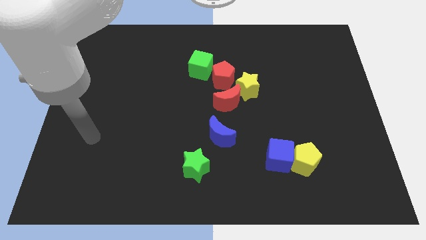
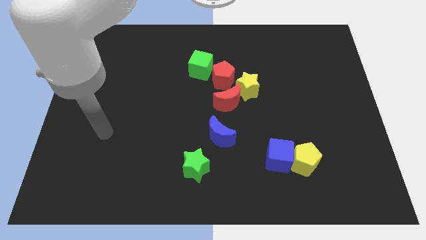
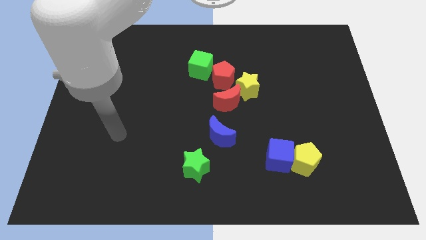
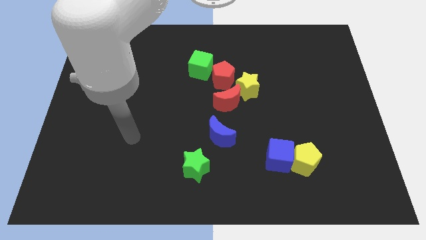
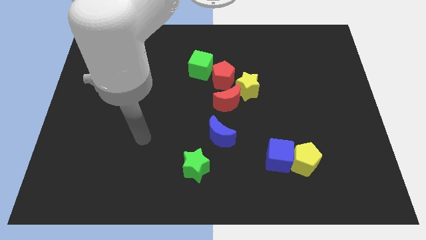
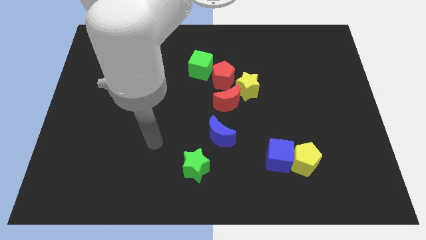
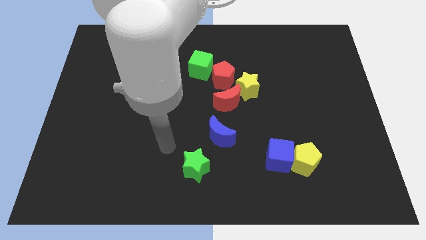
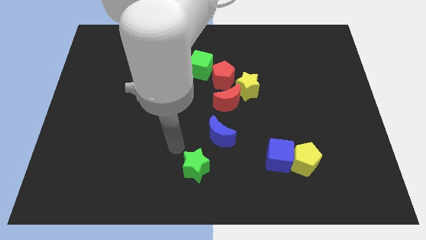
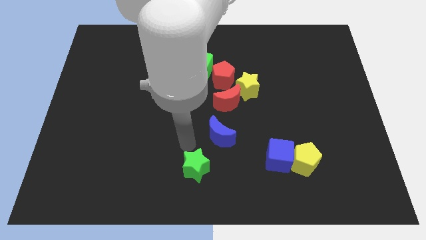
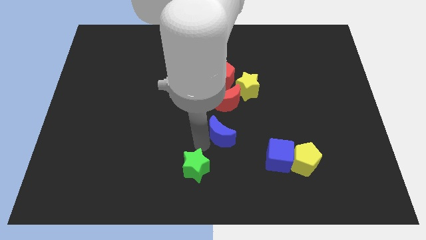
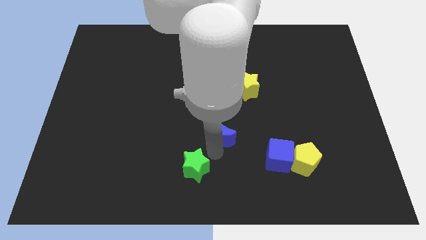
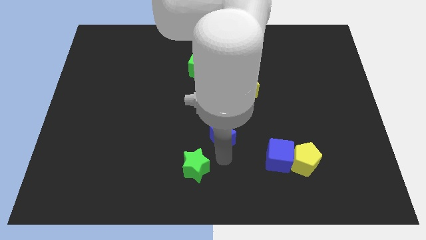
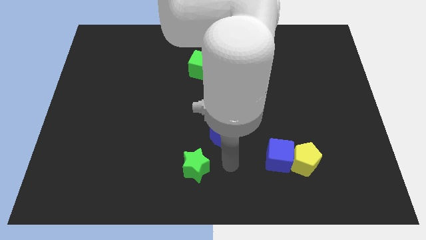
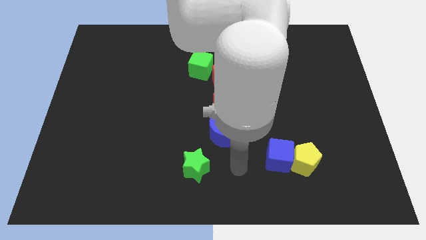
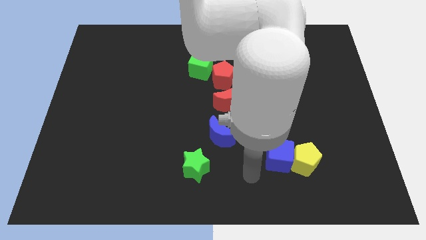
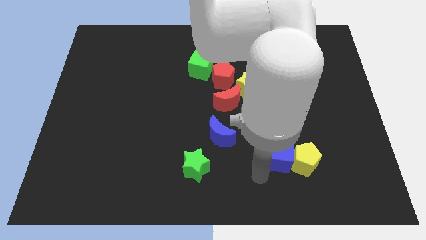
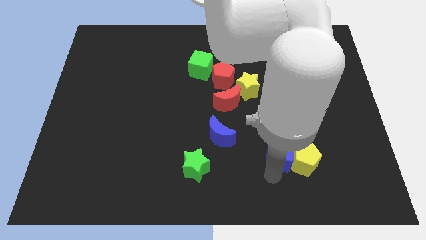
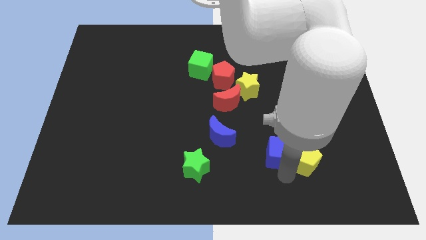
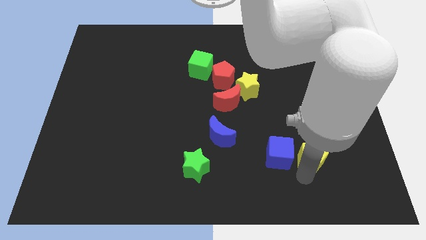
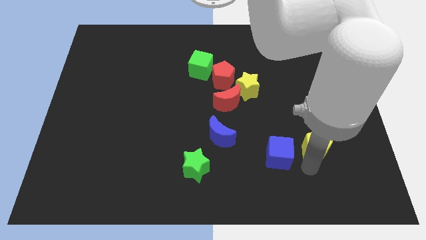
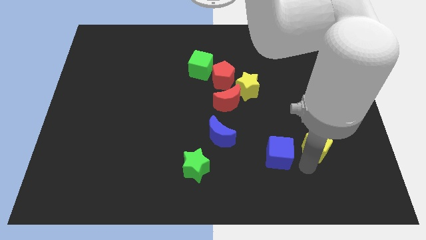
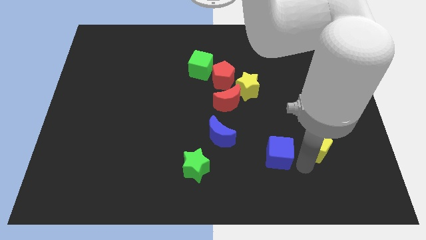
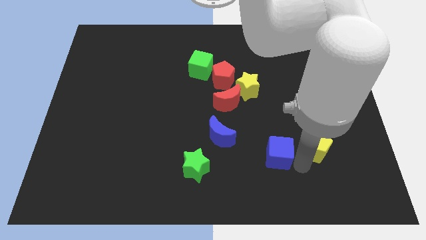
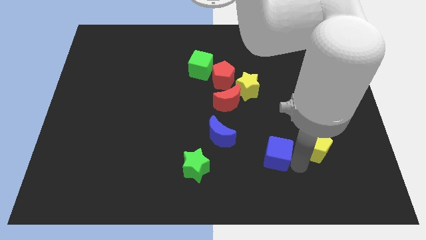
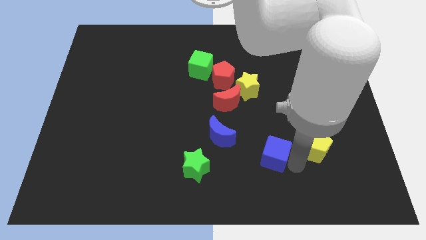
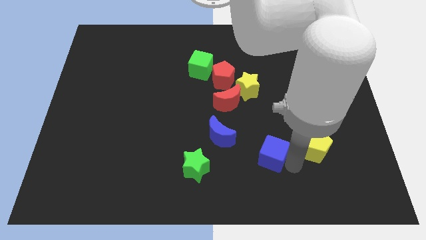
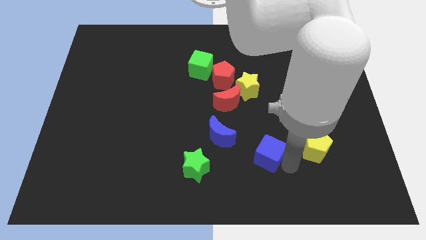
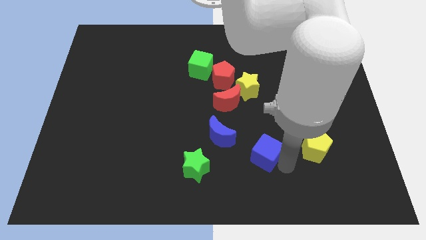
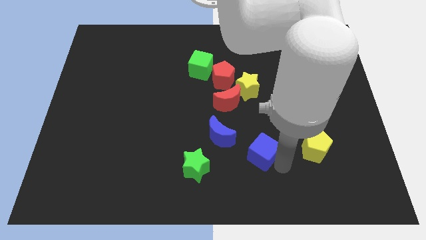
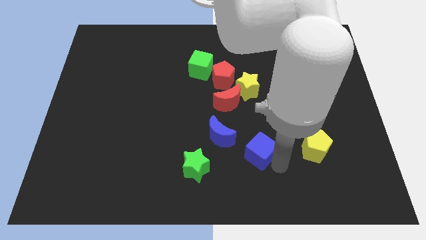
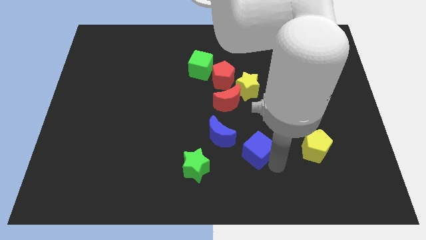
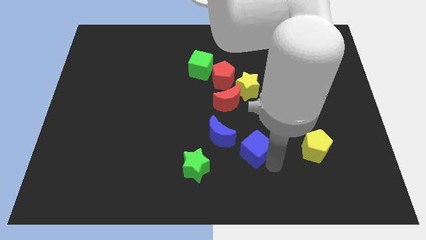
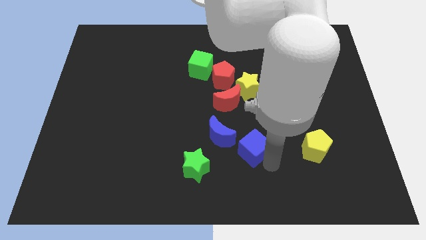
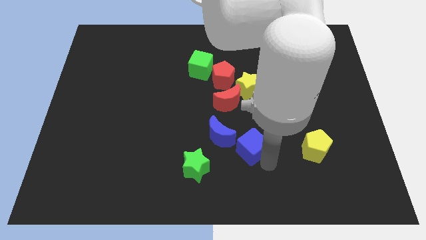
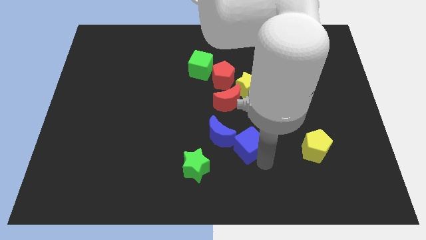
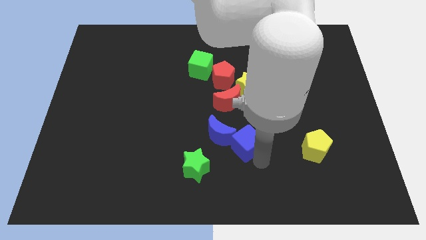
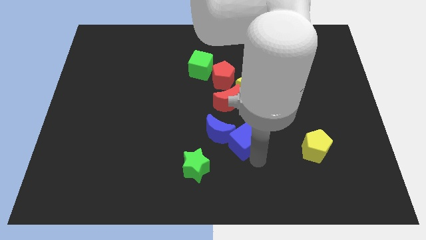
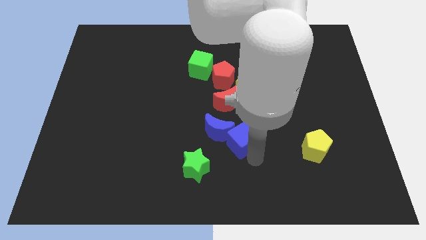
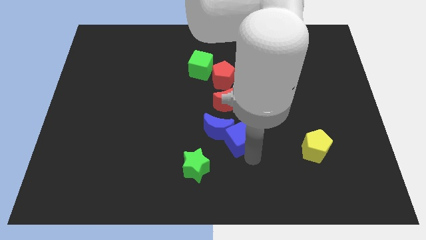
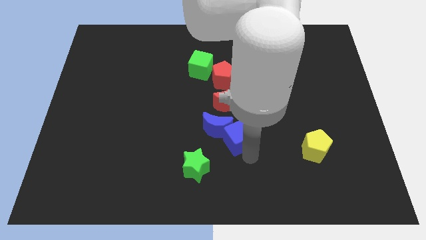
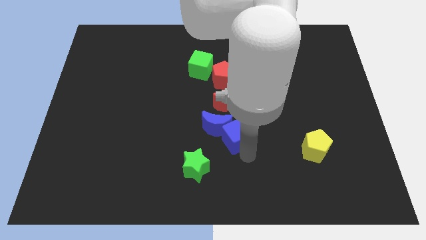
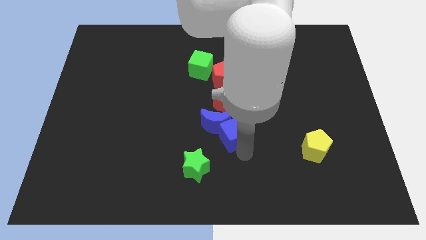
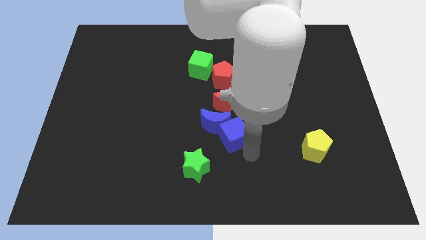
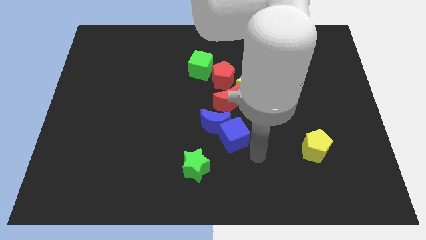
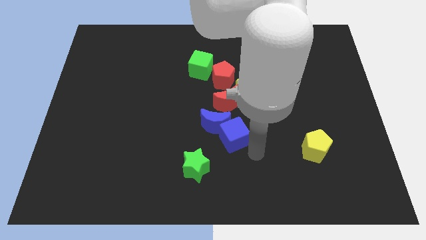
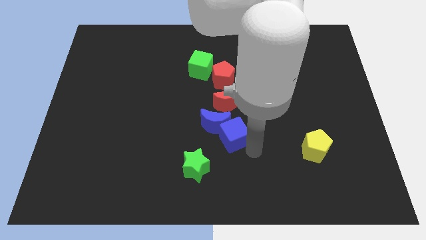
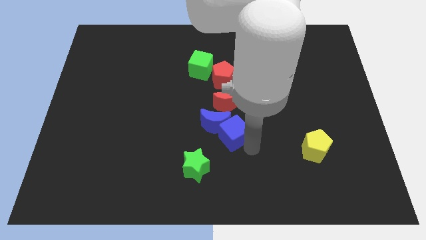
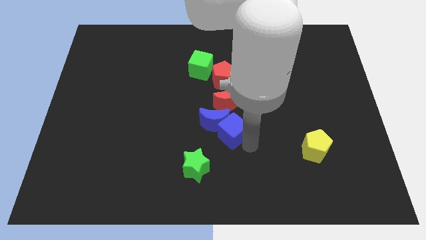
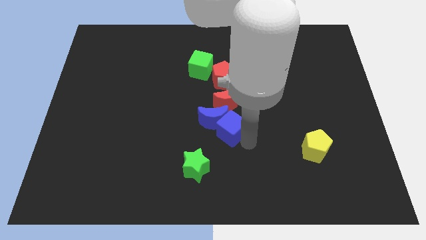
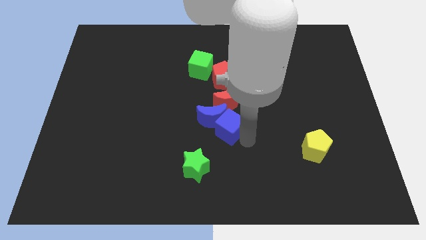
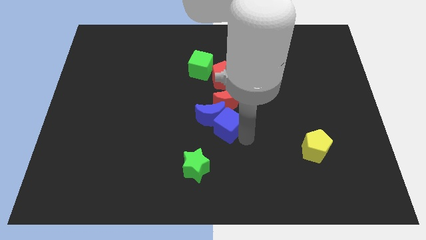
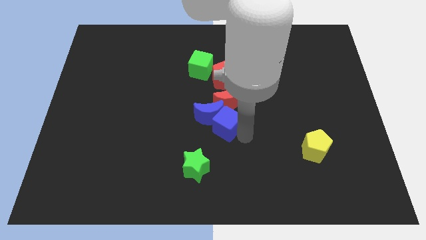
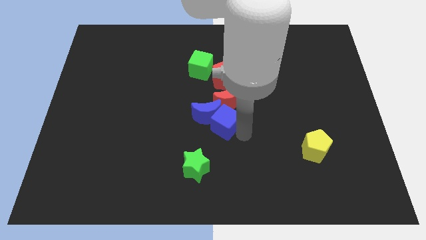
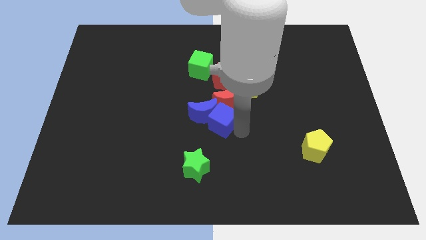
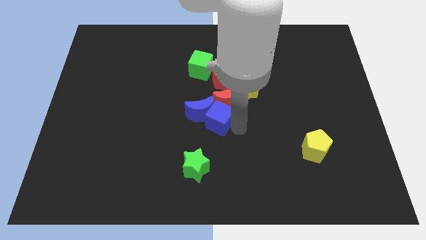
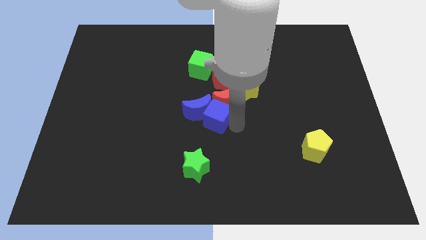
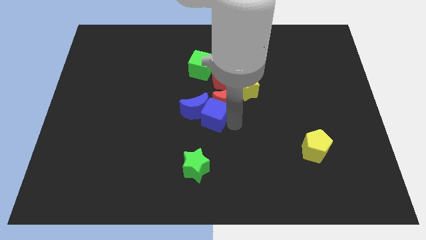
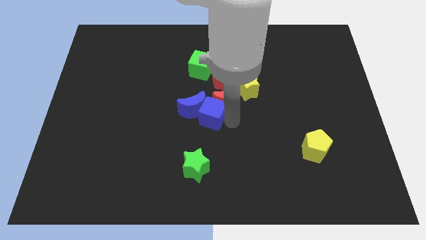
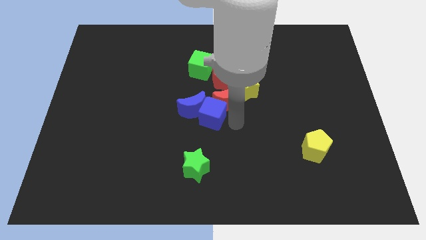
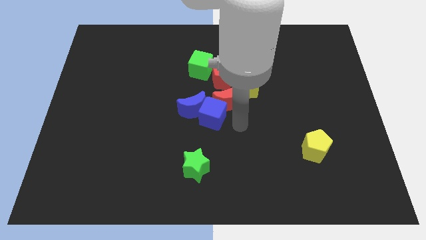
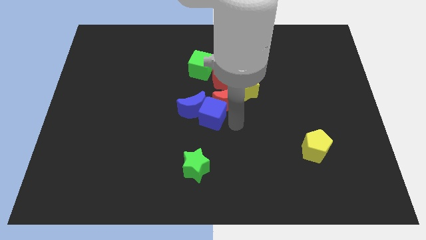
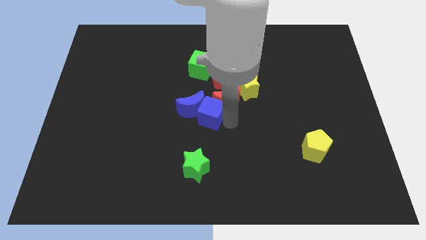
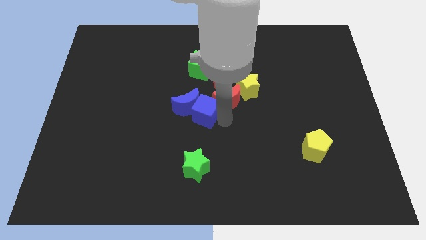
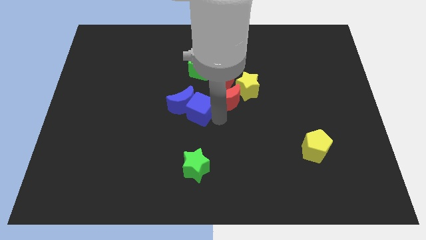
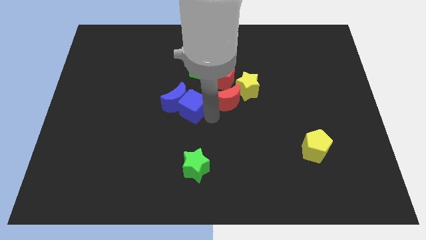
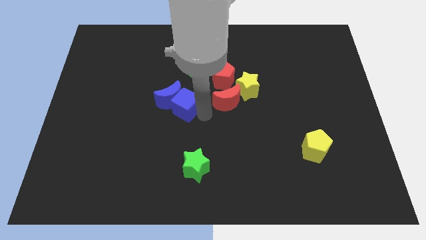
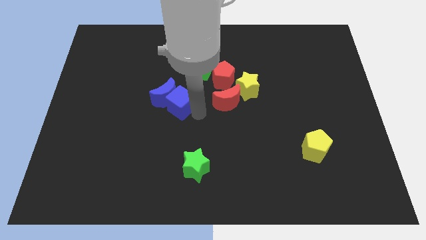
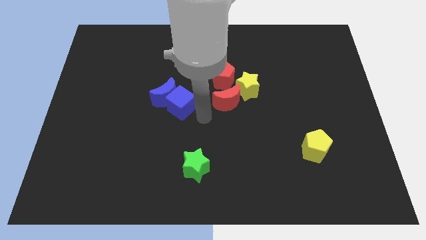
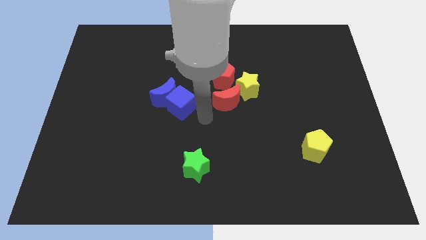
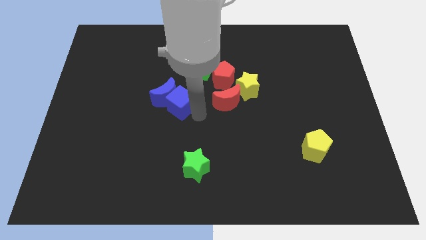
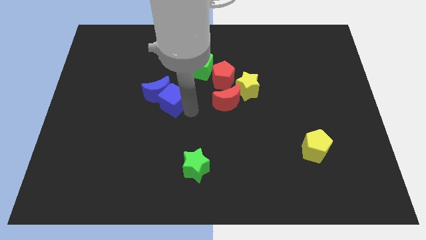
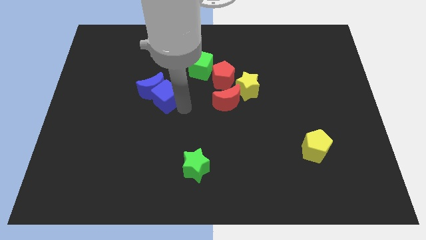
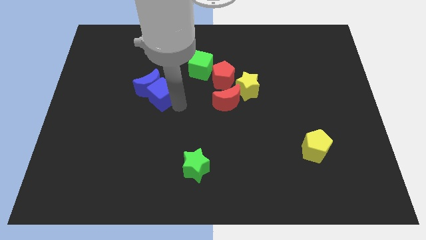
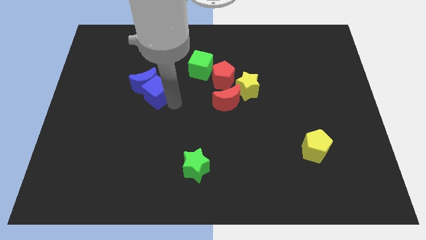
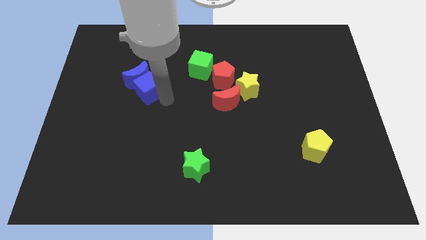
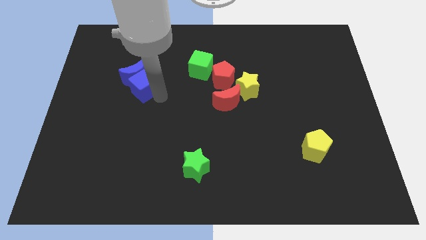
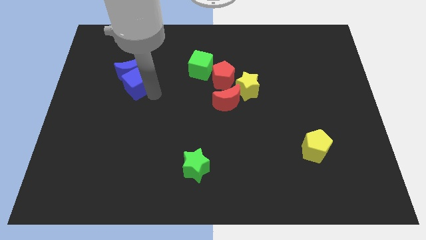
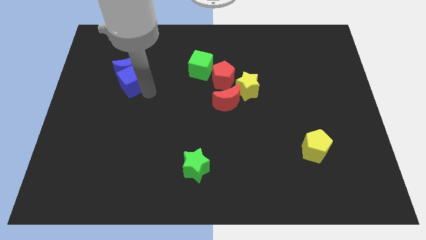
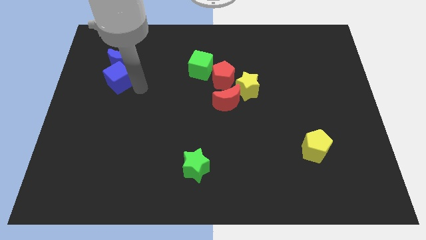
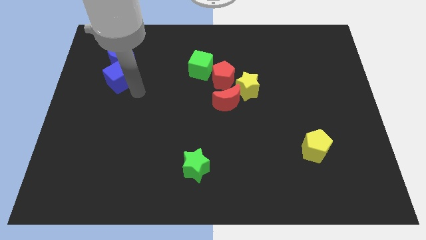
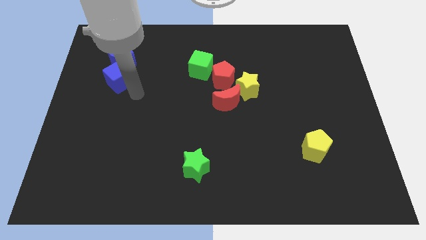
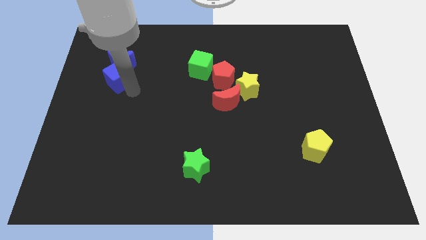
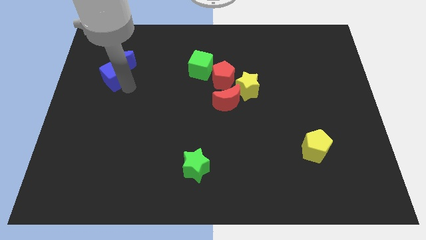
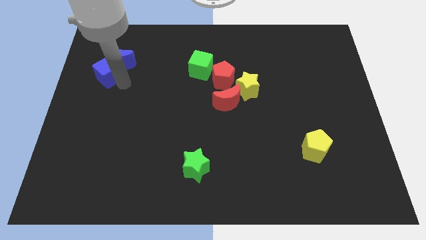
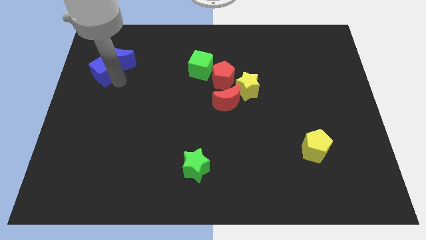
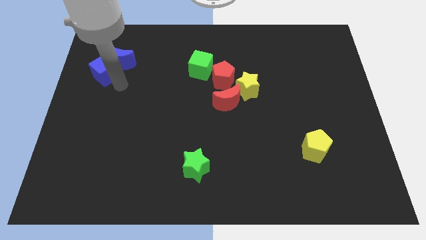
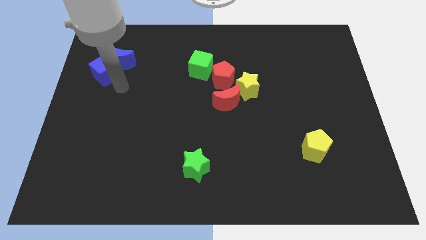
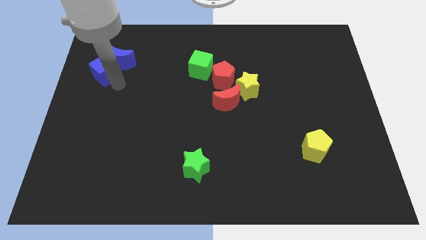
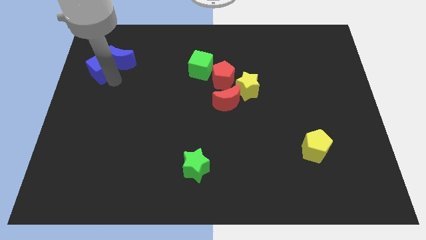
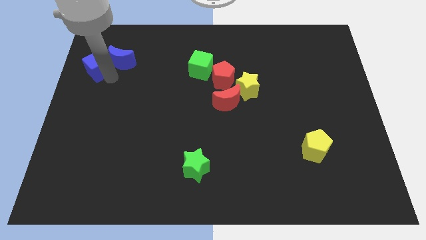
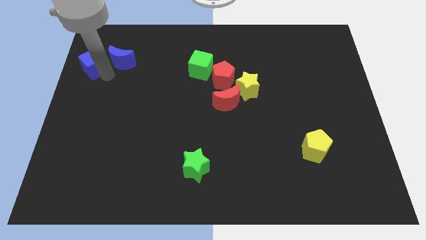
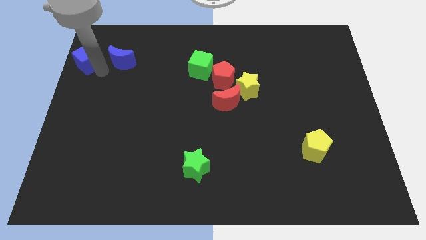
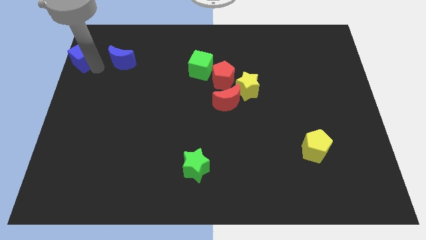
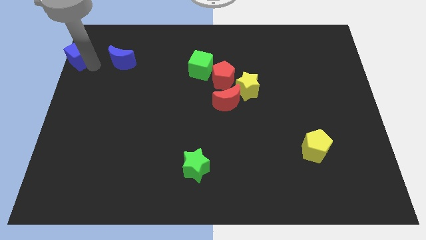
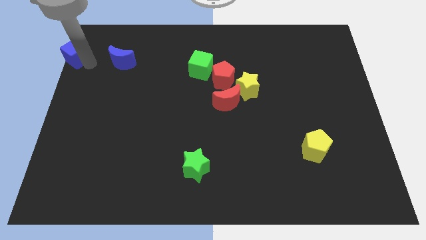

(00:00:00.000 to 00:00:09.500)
push the blue cube to the top left corner
